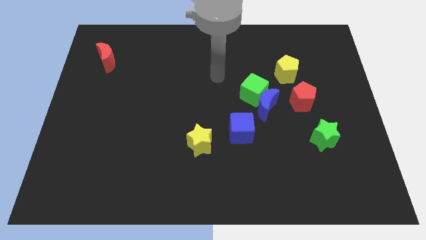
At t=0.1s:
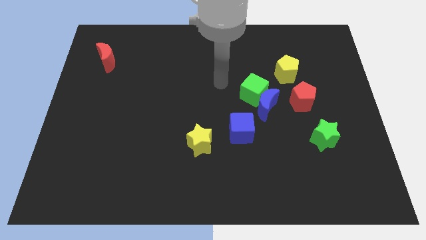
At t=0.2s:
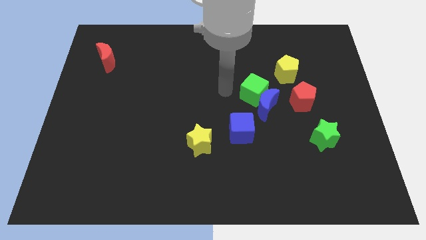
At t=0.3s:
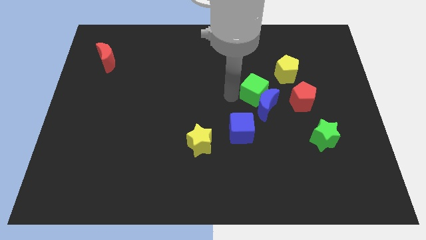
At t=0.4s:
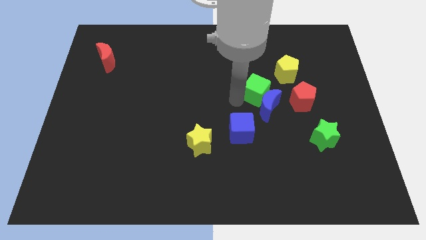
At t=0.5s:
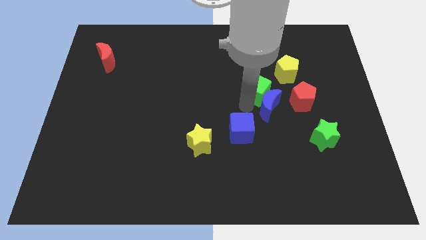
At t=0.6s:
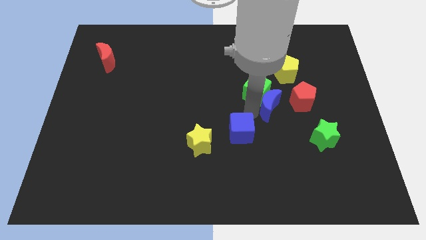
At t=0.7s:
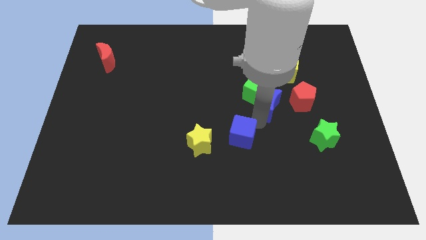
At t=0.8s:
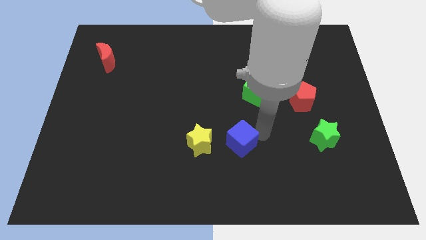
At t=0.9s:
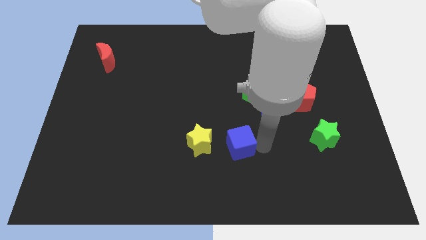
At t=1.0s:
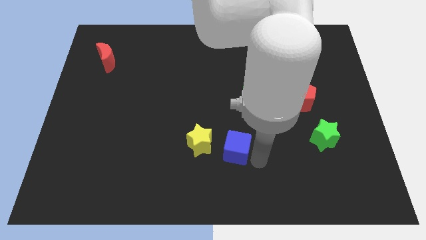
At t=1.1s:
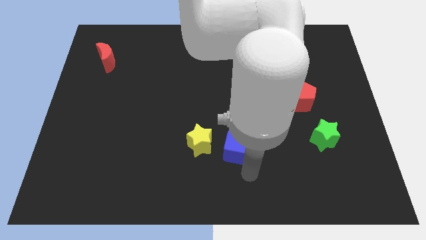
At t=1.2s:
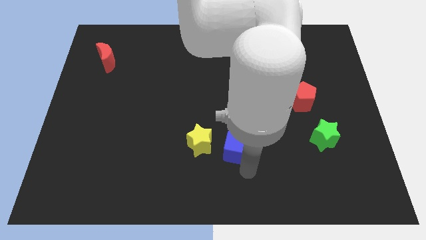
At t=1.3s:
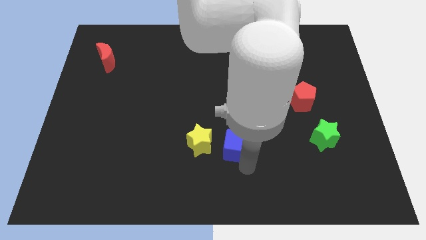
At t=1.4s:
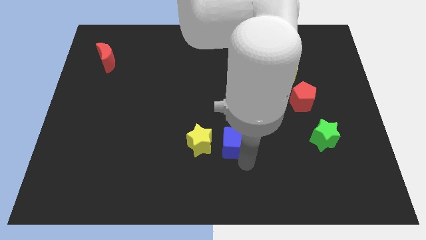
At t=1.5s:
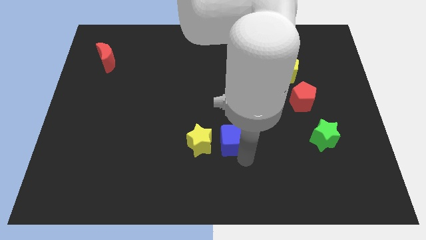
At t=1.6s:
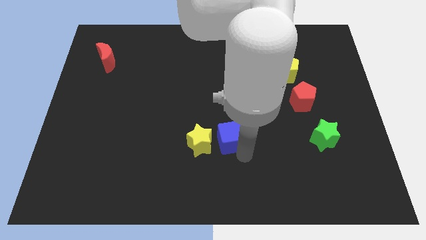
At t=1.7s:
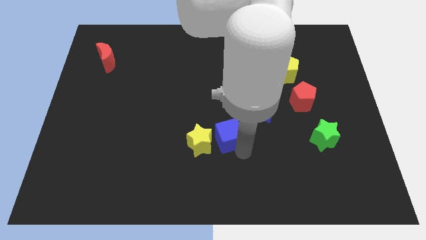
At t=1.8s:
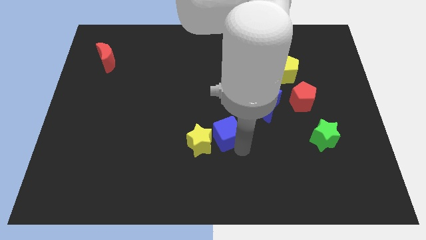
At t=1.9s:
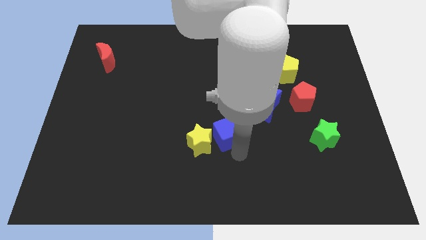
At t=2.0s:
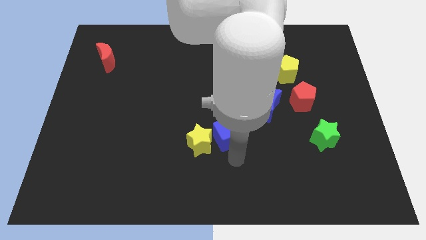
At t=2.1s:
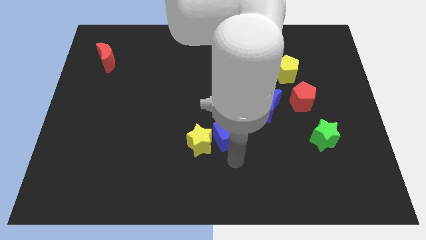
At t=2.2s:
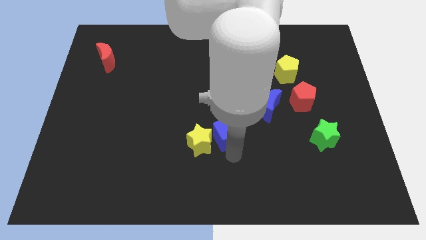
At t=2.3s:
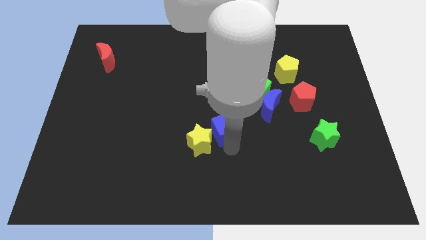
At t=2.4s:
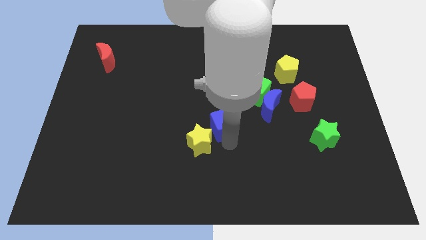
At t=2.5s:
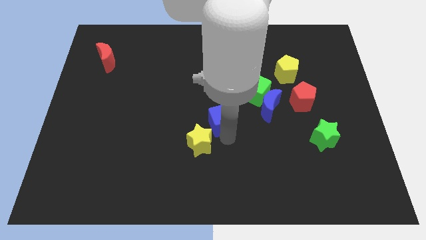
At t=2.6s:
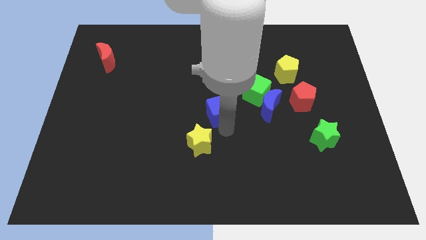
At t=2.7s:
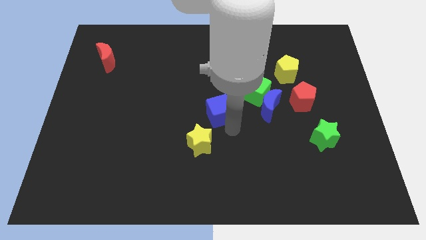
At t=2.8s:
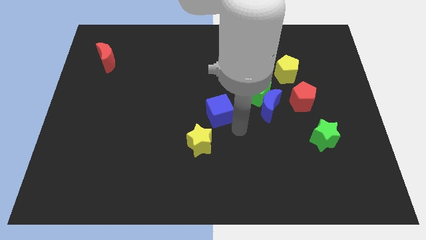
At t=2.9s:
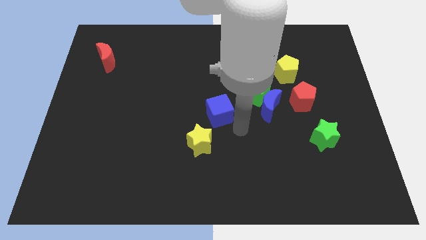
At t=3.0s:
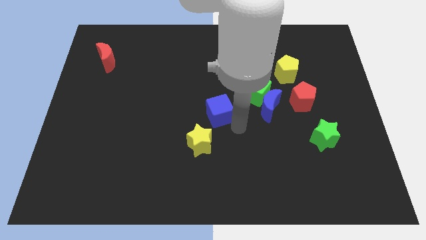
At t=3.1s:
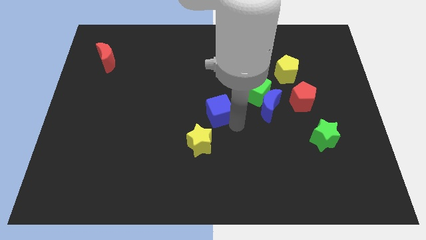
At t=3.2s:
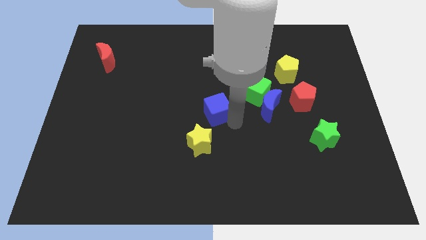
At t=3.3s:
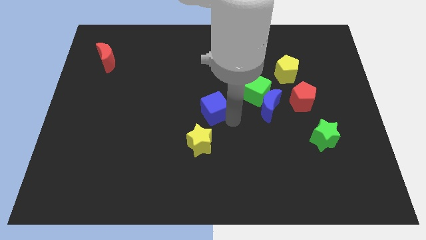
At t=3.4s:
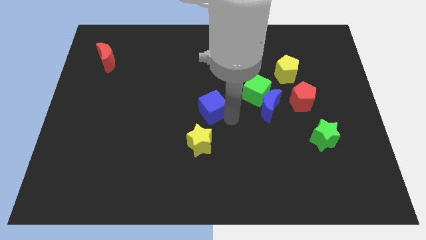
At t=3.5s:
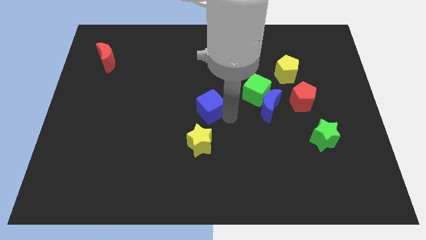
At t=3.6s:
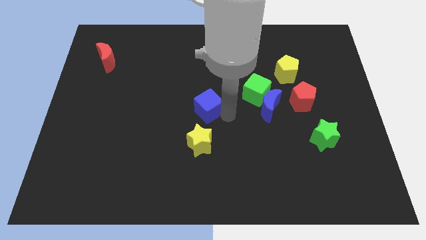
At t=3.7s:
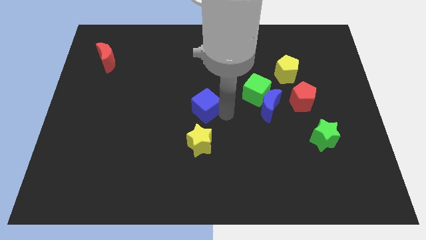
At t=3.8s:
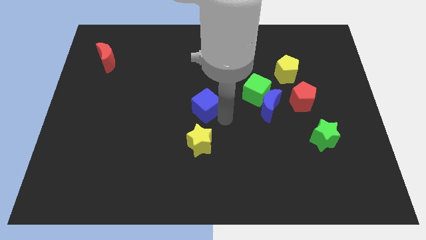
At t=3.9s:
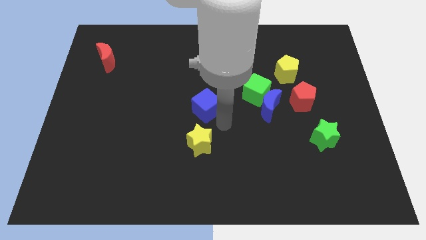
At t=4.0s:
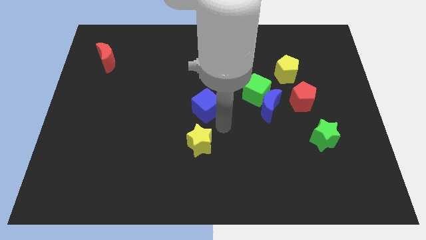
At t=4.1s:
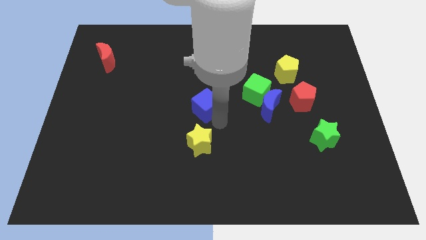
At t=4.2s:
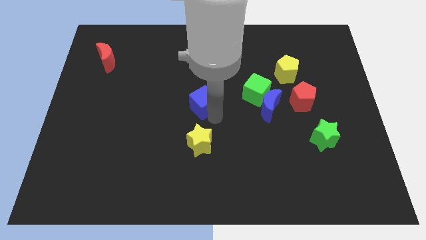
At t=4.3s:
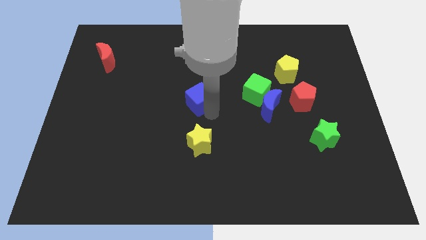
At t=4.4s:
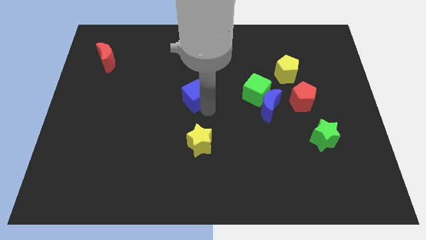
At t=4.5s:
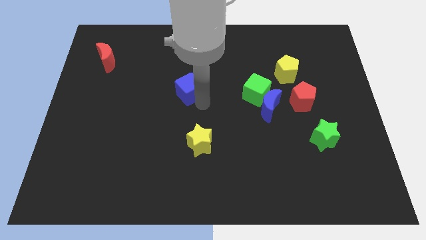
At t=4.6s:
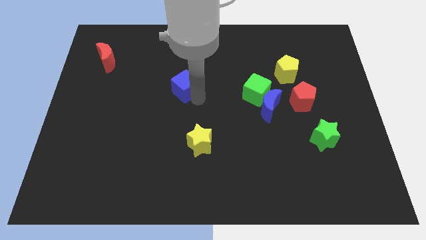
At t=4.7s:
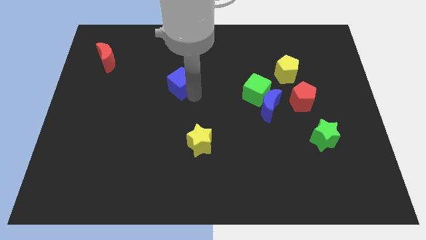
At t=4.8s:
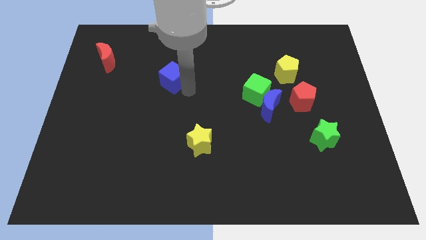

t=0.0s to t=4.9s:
slide the blue cube diagonally upwards and left

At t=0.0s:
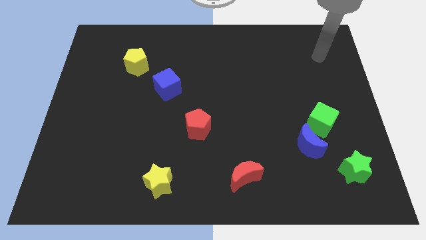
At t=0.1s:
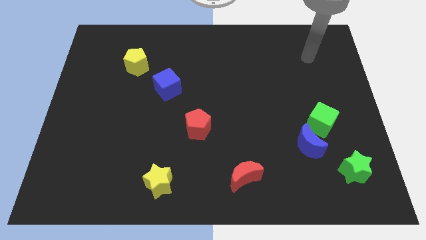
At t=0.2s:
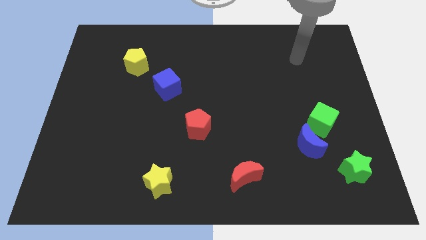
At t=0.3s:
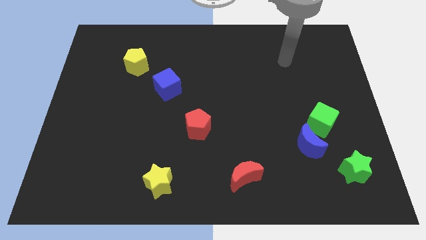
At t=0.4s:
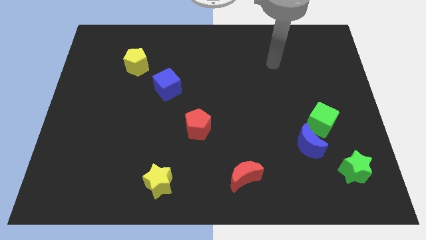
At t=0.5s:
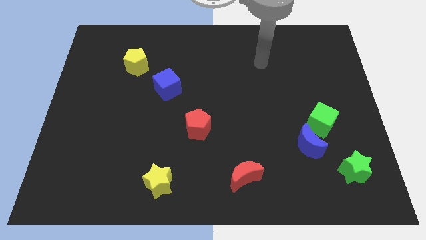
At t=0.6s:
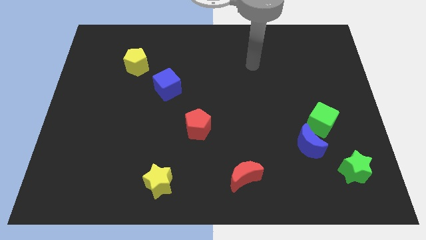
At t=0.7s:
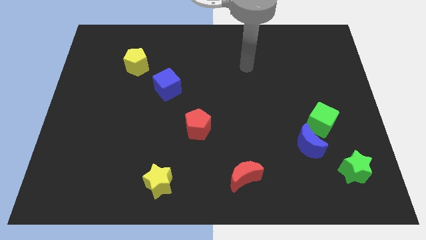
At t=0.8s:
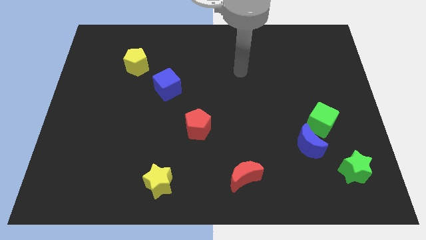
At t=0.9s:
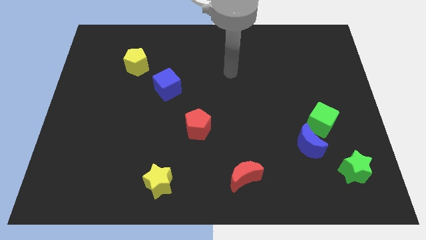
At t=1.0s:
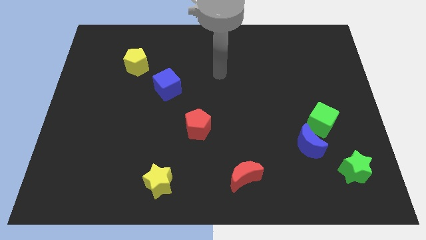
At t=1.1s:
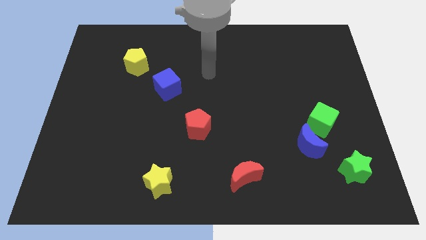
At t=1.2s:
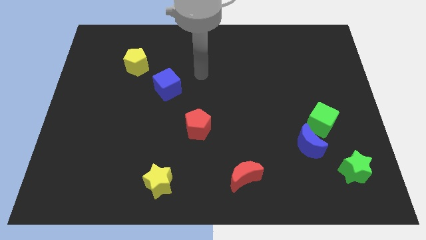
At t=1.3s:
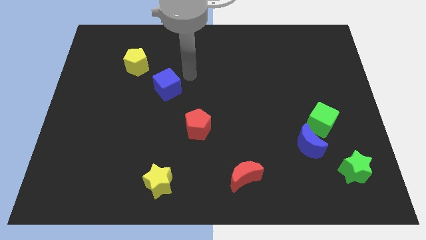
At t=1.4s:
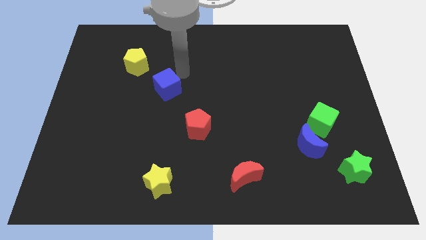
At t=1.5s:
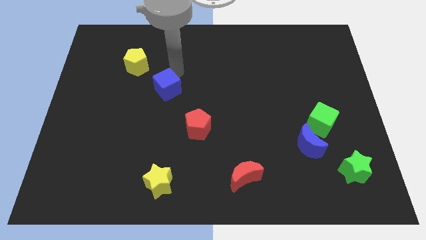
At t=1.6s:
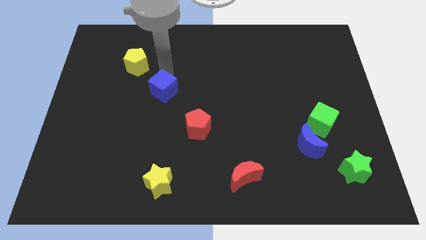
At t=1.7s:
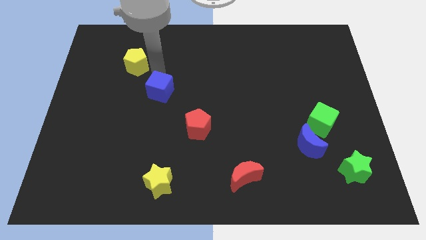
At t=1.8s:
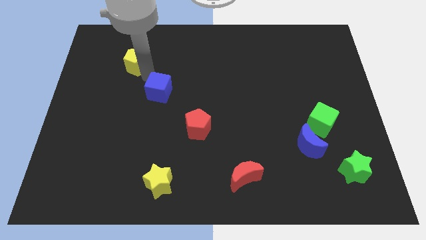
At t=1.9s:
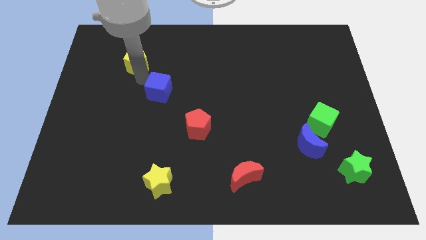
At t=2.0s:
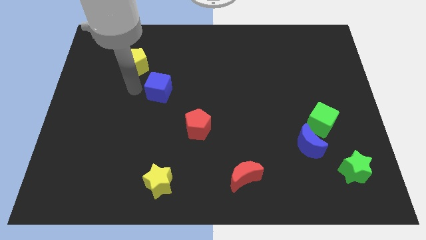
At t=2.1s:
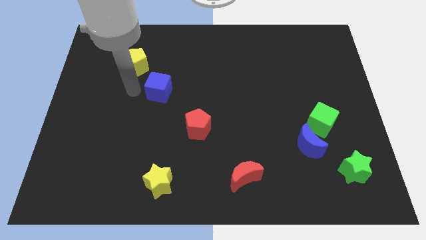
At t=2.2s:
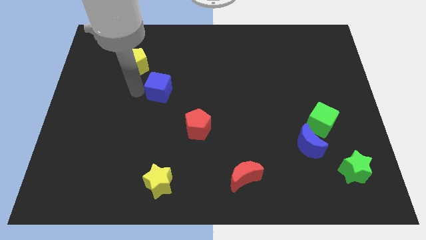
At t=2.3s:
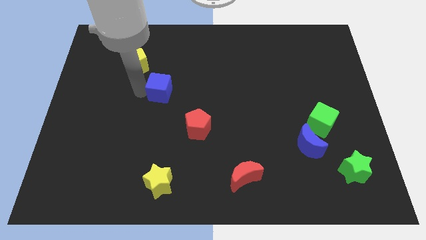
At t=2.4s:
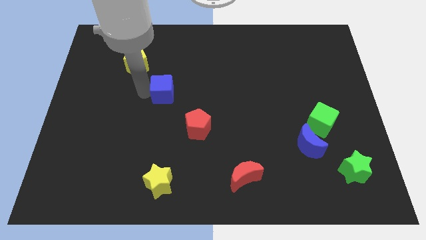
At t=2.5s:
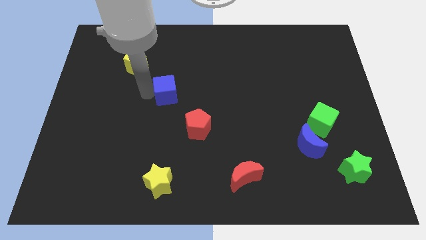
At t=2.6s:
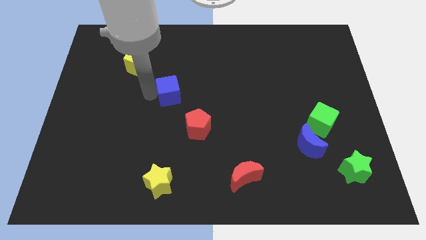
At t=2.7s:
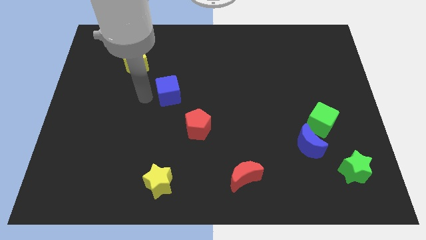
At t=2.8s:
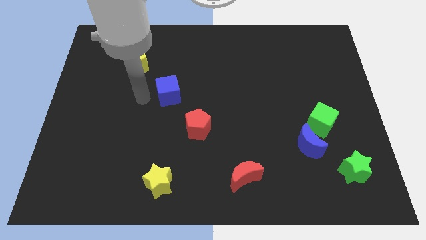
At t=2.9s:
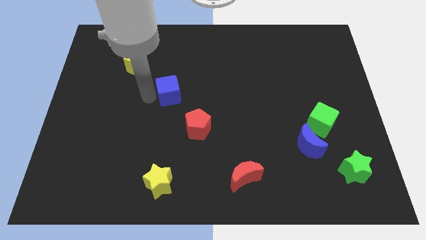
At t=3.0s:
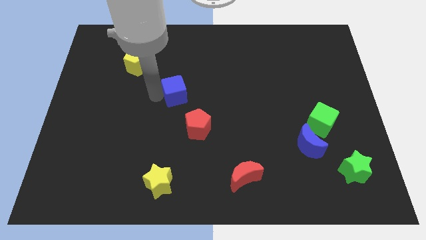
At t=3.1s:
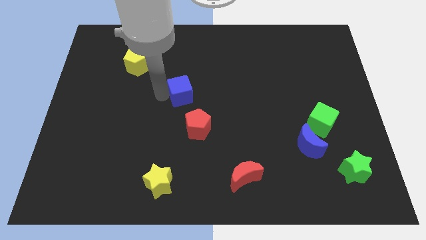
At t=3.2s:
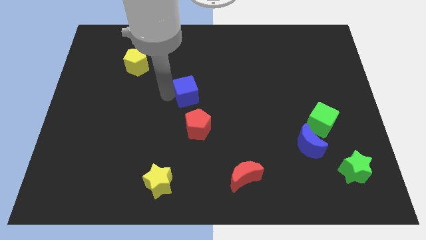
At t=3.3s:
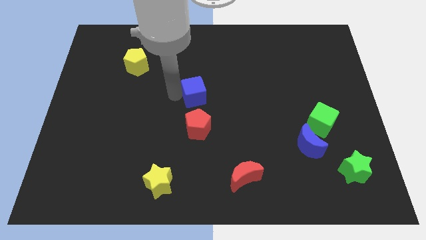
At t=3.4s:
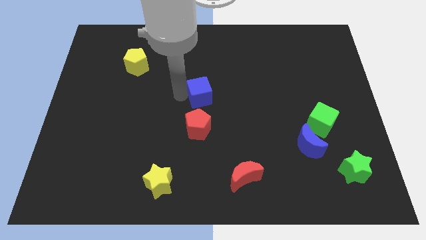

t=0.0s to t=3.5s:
push the blue cube right slightly
